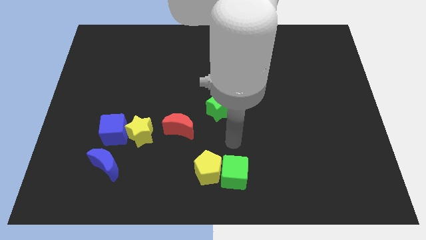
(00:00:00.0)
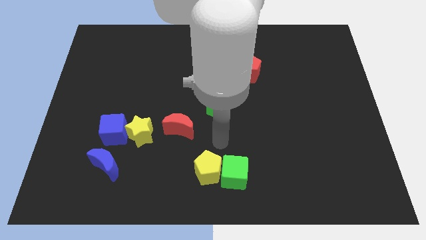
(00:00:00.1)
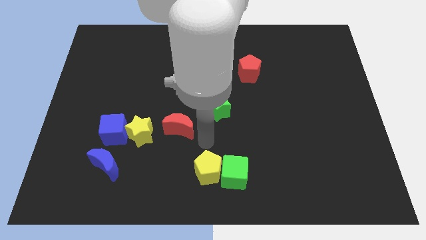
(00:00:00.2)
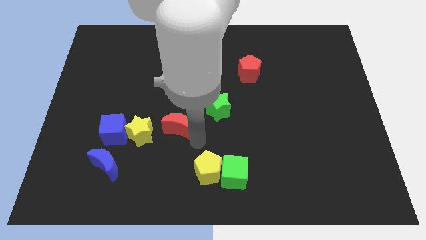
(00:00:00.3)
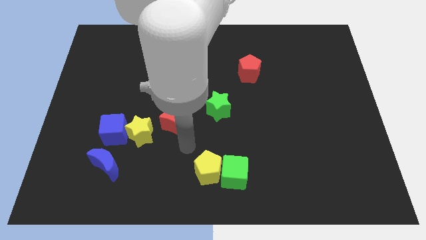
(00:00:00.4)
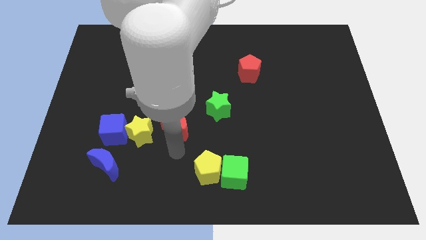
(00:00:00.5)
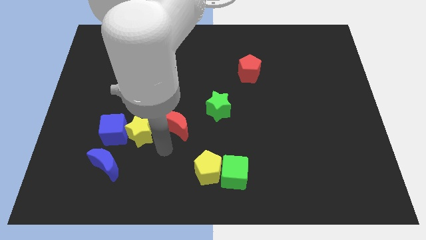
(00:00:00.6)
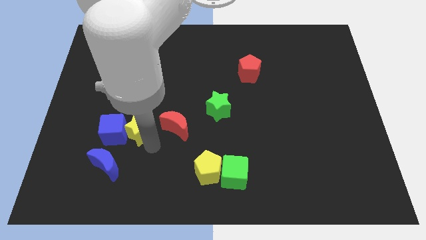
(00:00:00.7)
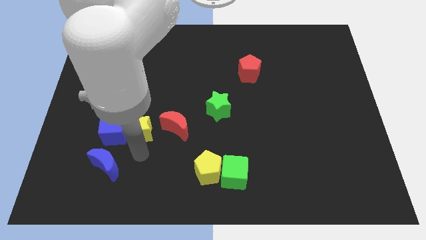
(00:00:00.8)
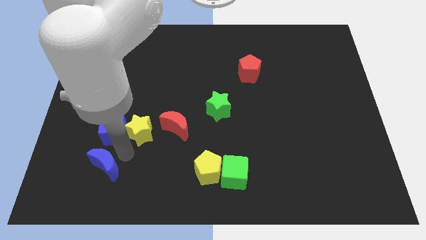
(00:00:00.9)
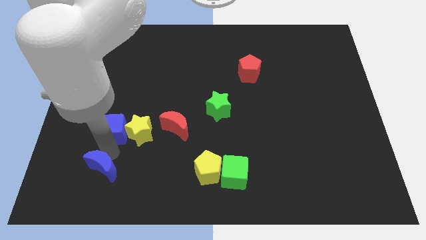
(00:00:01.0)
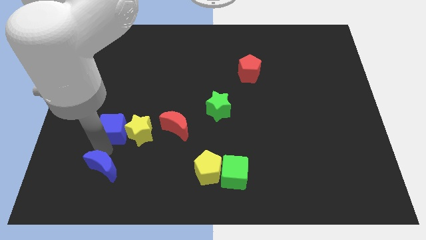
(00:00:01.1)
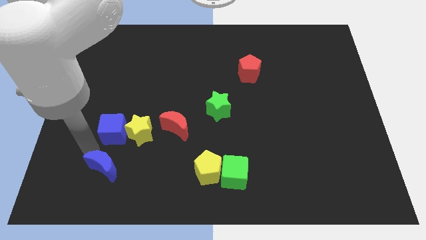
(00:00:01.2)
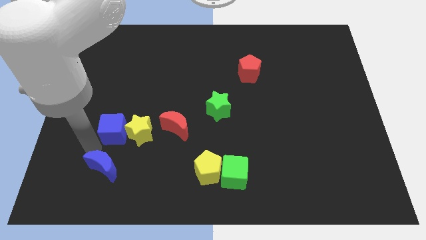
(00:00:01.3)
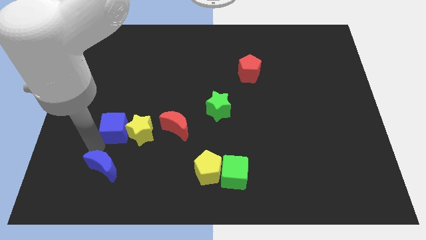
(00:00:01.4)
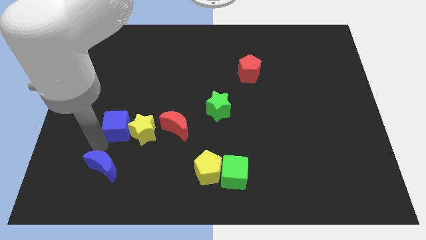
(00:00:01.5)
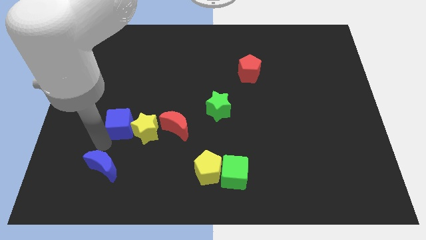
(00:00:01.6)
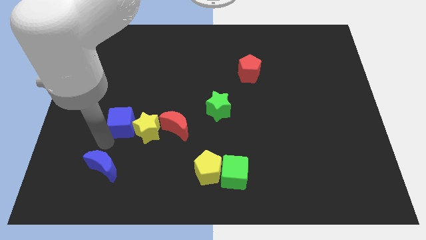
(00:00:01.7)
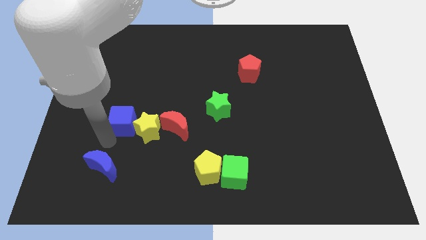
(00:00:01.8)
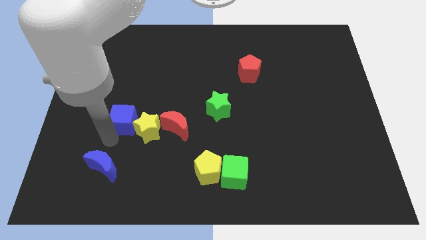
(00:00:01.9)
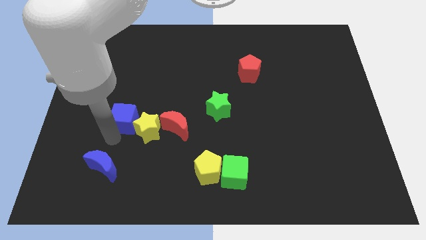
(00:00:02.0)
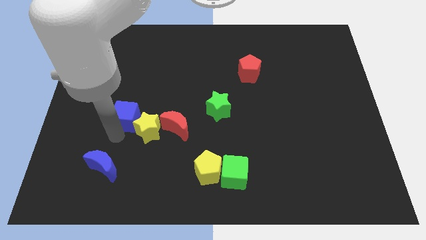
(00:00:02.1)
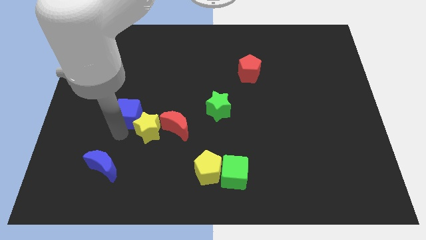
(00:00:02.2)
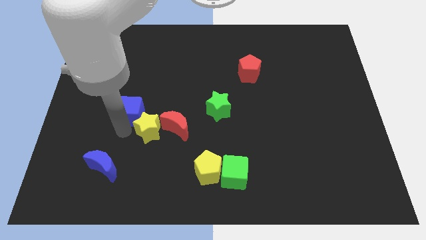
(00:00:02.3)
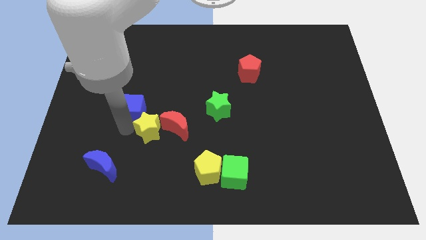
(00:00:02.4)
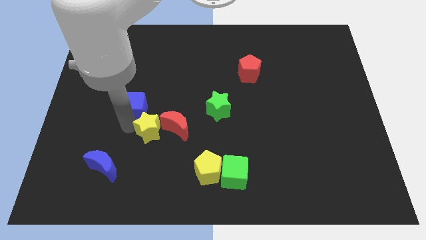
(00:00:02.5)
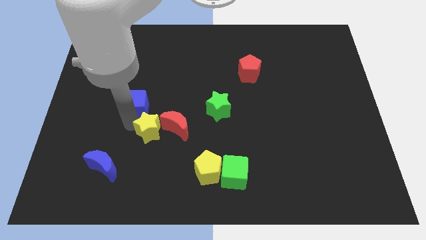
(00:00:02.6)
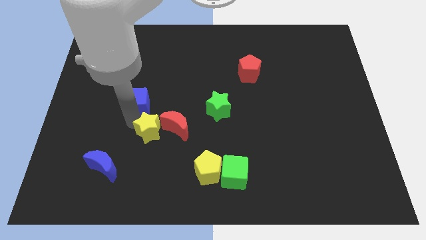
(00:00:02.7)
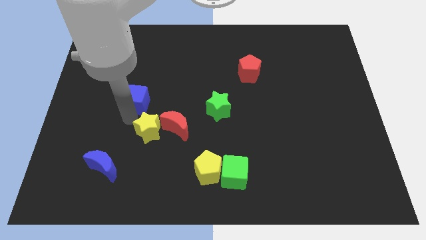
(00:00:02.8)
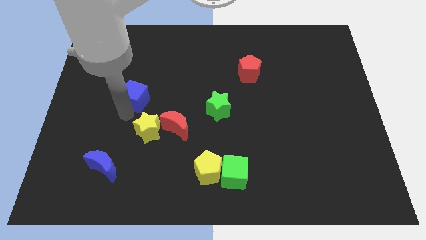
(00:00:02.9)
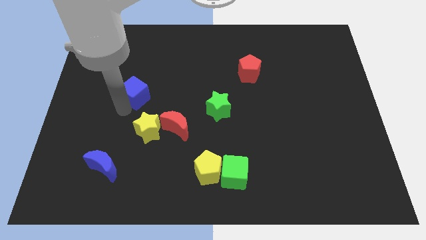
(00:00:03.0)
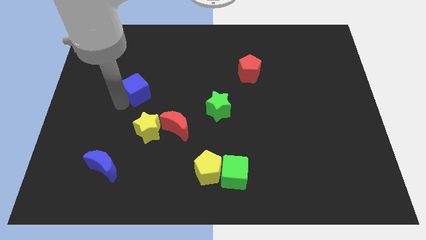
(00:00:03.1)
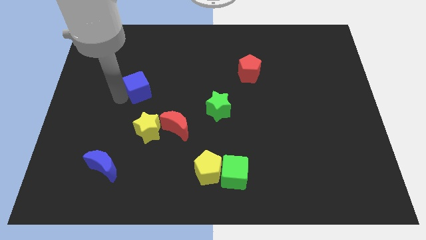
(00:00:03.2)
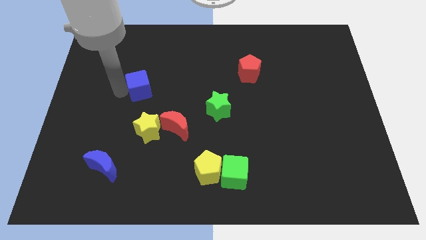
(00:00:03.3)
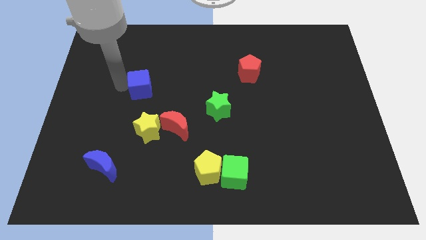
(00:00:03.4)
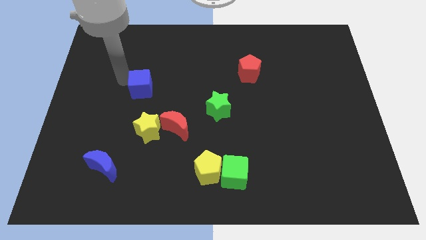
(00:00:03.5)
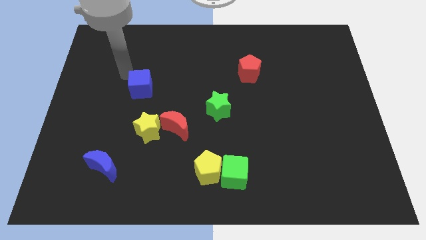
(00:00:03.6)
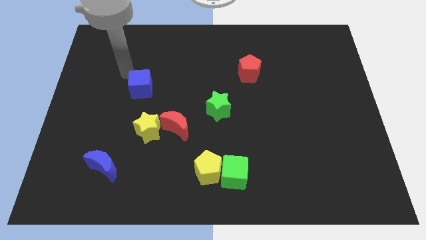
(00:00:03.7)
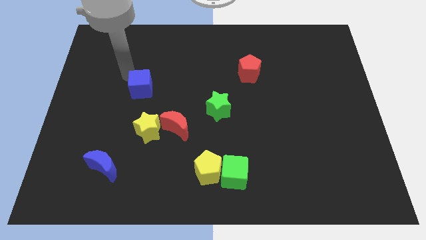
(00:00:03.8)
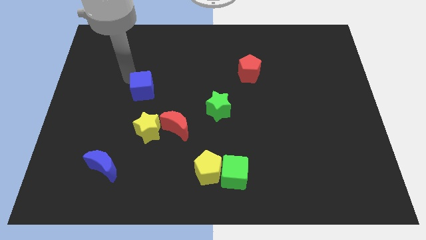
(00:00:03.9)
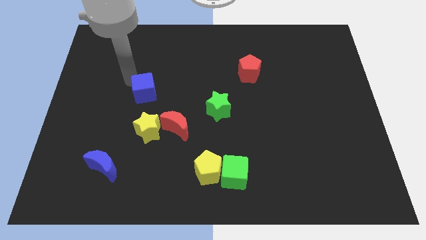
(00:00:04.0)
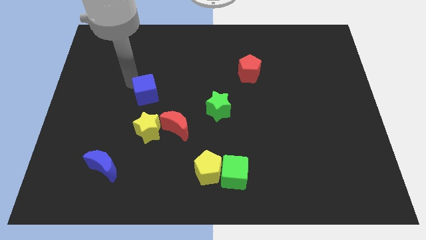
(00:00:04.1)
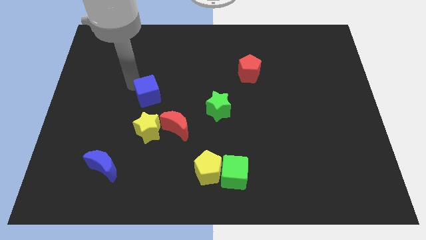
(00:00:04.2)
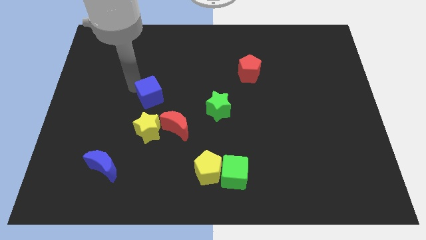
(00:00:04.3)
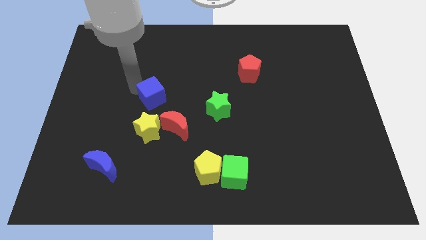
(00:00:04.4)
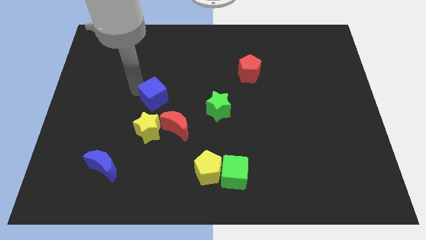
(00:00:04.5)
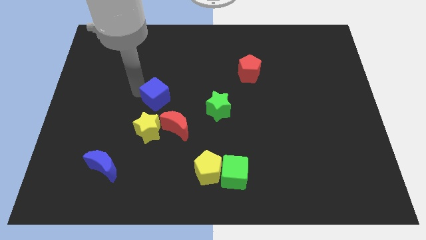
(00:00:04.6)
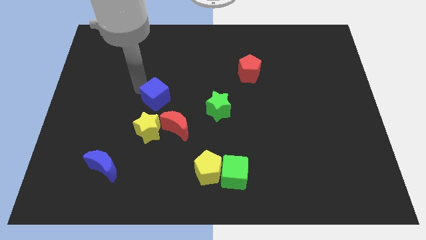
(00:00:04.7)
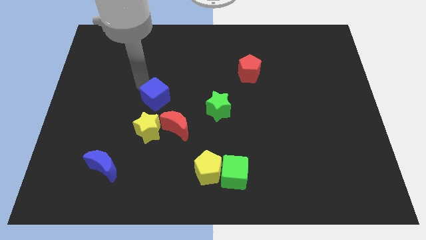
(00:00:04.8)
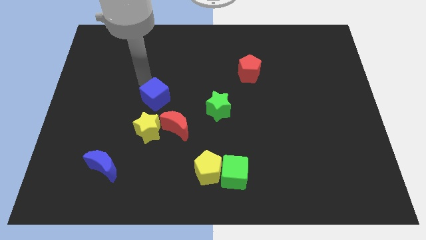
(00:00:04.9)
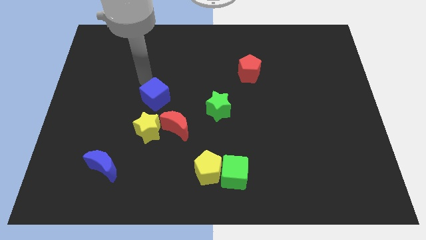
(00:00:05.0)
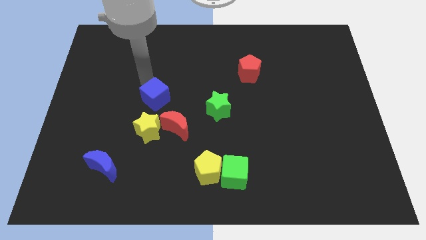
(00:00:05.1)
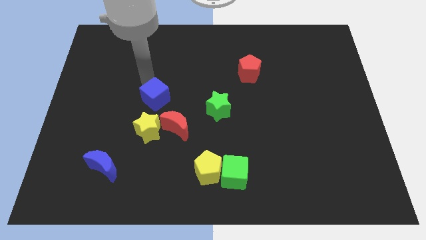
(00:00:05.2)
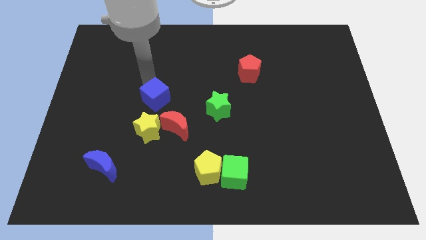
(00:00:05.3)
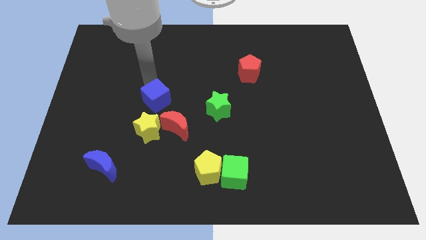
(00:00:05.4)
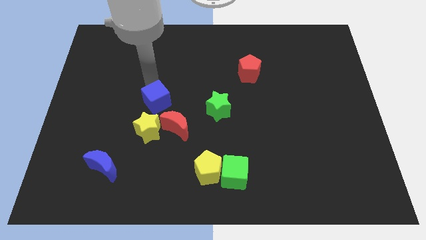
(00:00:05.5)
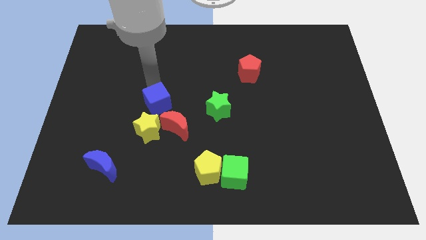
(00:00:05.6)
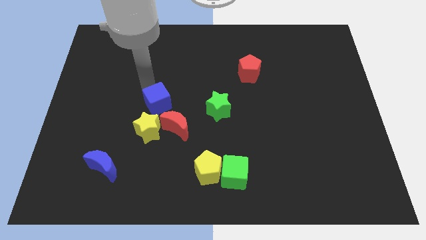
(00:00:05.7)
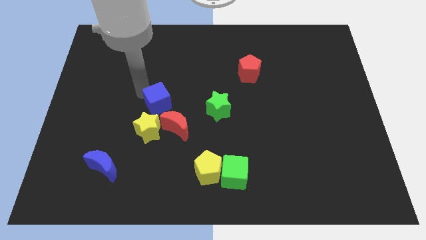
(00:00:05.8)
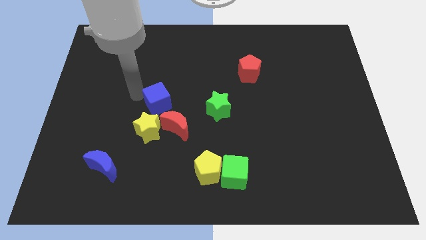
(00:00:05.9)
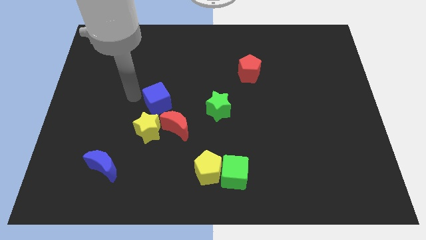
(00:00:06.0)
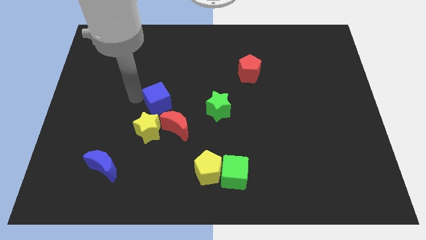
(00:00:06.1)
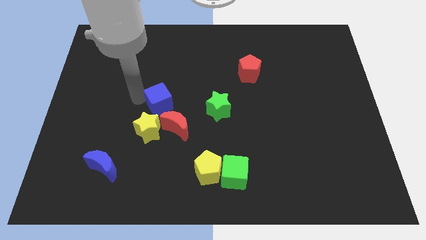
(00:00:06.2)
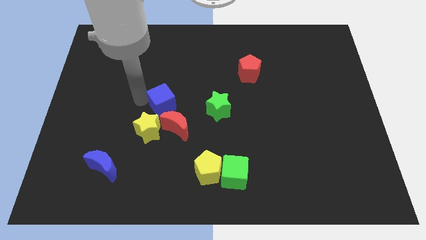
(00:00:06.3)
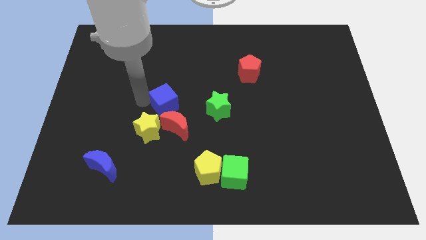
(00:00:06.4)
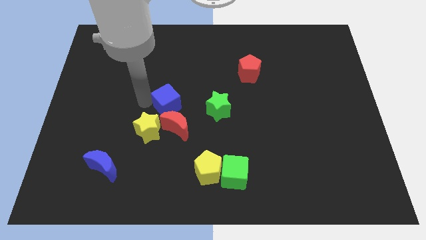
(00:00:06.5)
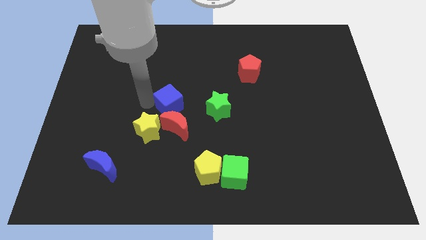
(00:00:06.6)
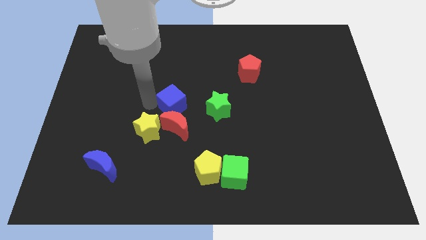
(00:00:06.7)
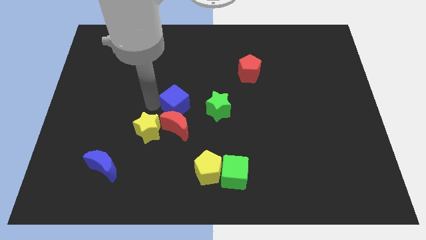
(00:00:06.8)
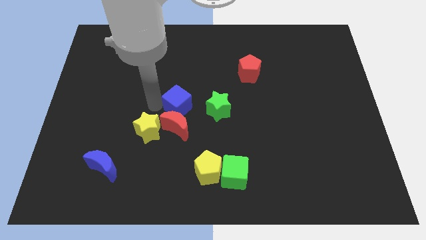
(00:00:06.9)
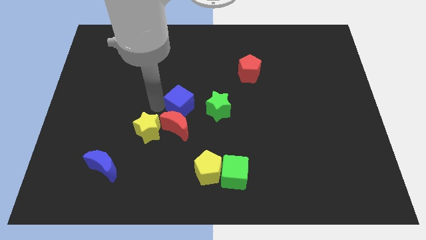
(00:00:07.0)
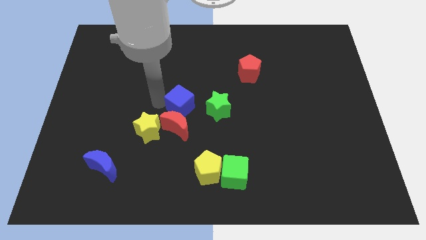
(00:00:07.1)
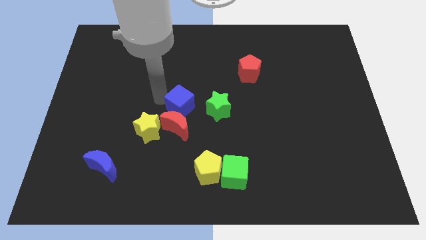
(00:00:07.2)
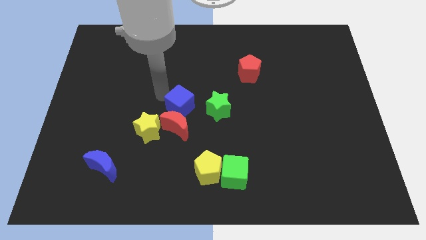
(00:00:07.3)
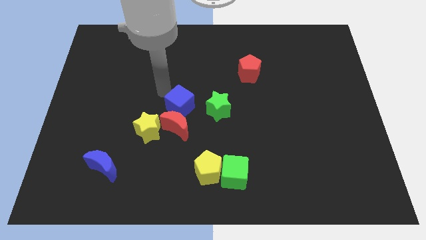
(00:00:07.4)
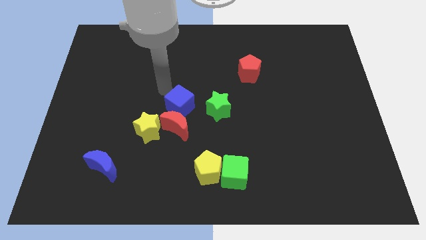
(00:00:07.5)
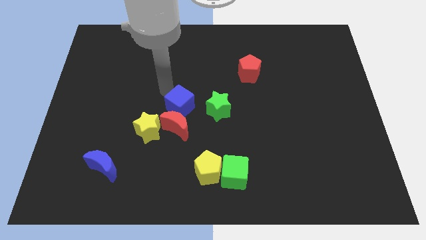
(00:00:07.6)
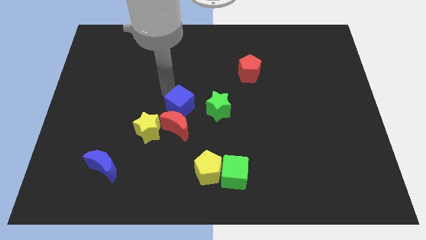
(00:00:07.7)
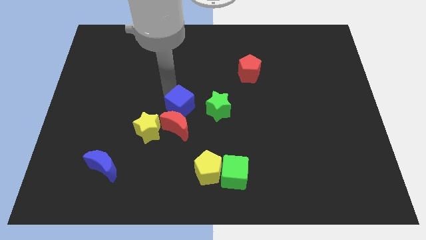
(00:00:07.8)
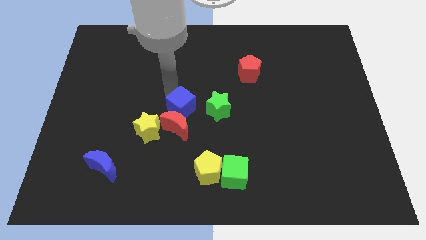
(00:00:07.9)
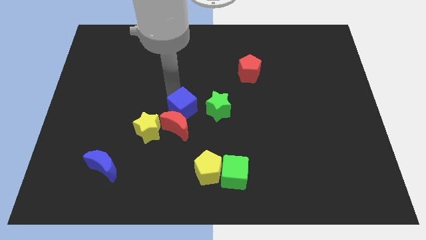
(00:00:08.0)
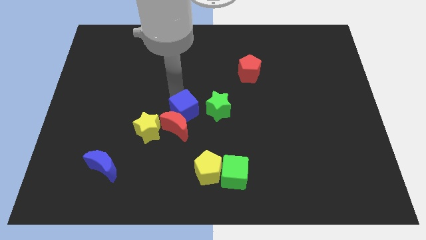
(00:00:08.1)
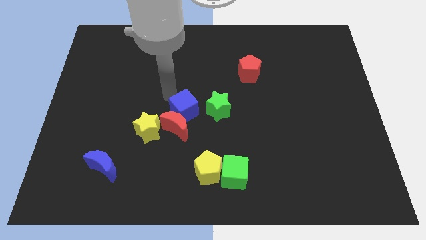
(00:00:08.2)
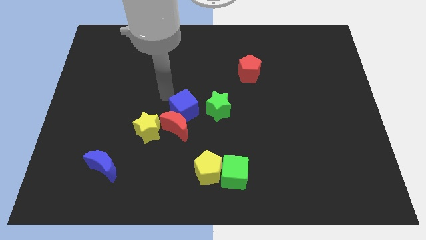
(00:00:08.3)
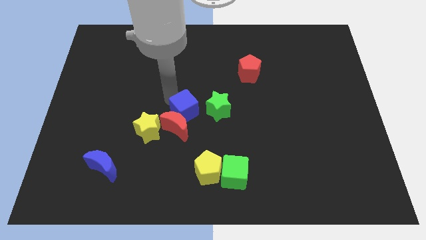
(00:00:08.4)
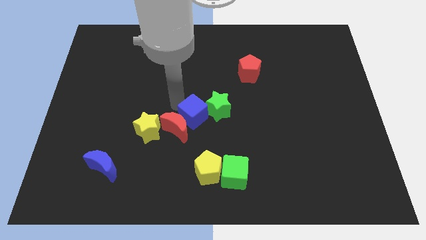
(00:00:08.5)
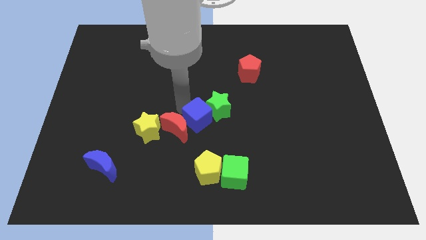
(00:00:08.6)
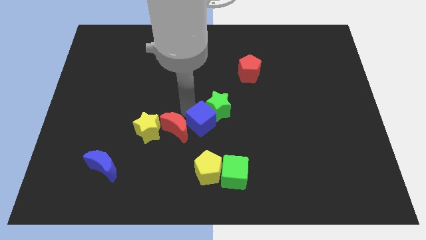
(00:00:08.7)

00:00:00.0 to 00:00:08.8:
push the blue cube to the bottom side of the green star
